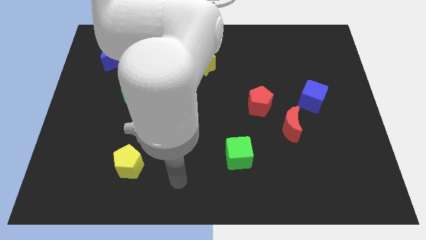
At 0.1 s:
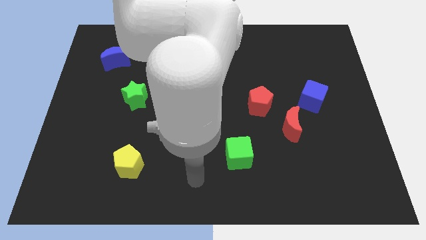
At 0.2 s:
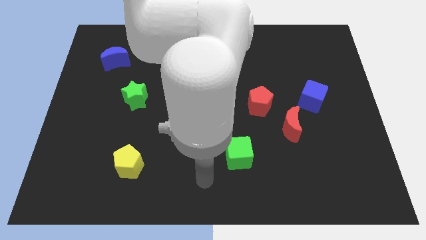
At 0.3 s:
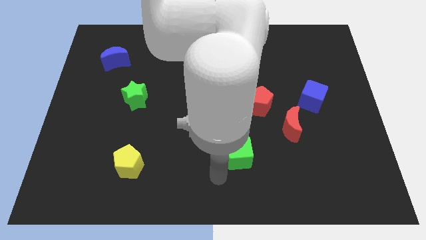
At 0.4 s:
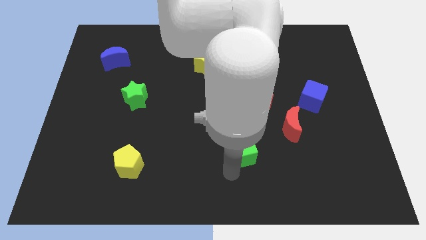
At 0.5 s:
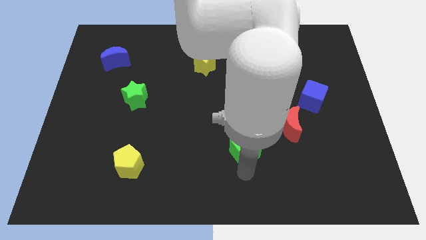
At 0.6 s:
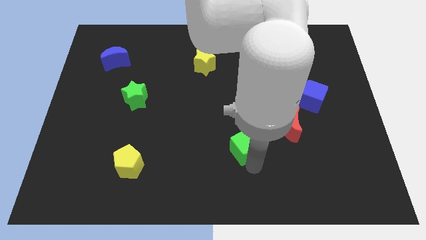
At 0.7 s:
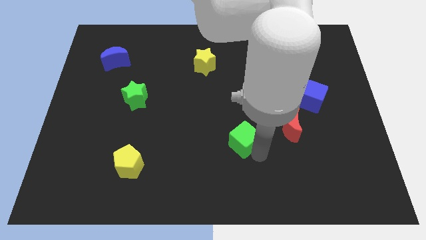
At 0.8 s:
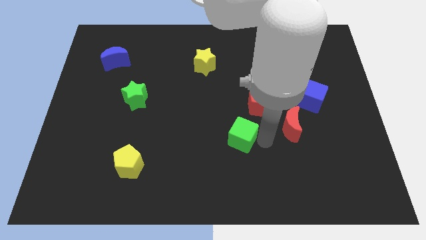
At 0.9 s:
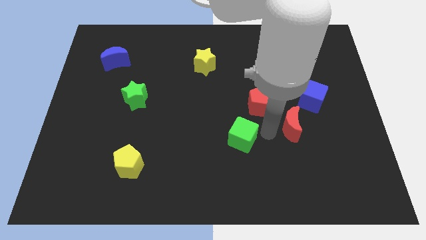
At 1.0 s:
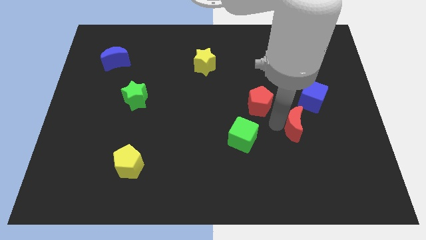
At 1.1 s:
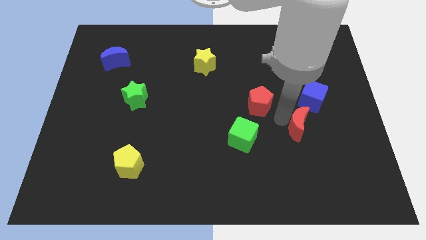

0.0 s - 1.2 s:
separate the red pentagon from the red moon

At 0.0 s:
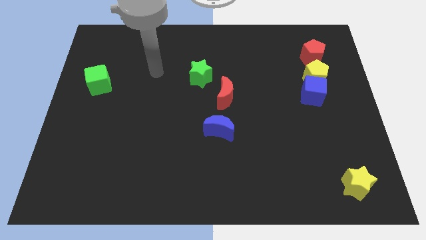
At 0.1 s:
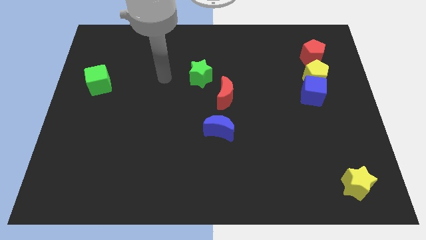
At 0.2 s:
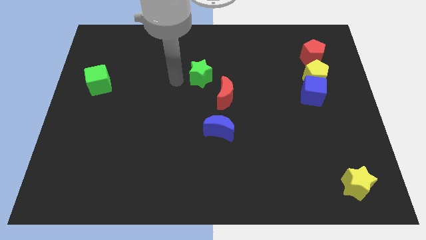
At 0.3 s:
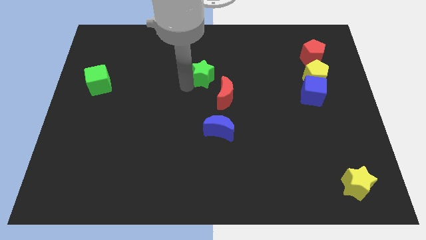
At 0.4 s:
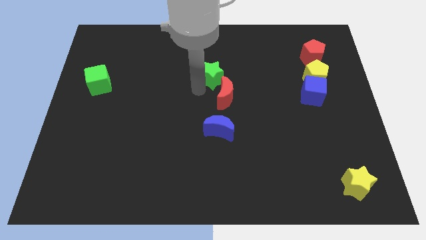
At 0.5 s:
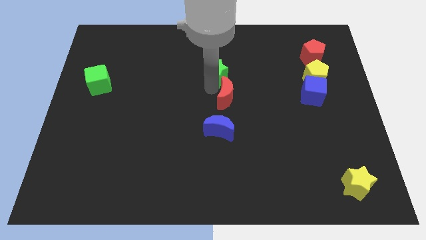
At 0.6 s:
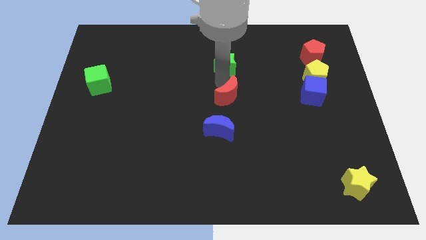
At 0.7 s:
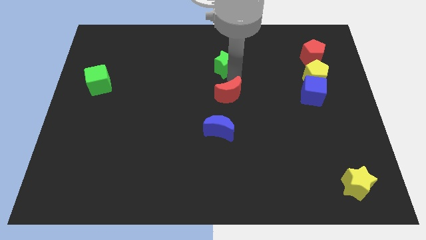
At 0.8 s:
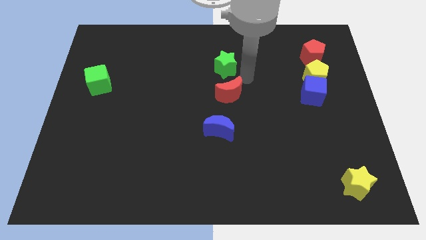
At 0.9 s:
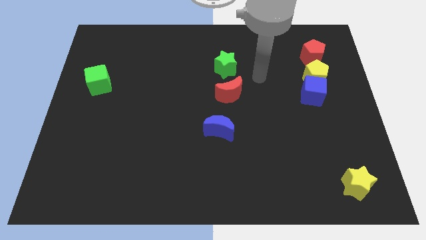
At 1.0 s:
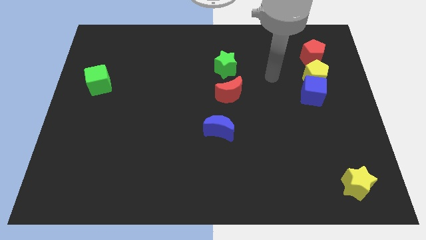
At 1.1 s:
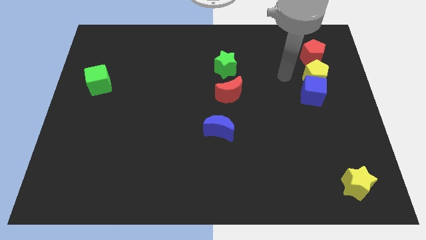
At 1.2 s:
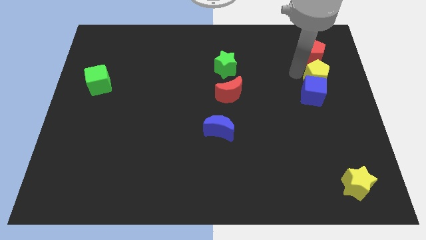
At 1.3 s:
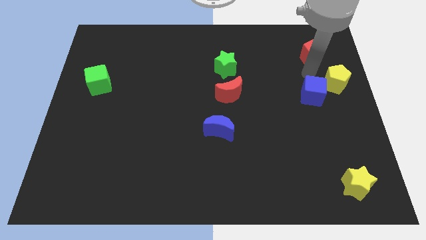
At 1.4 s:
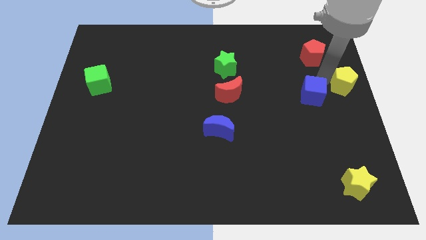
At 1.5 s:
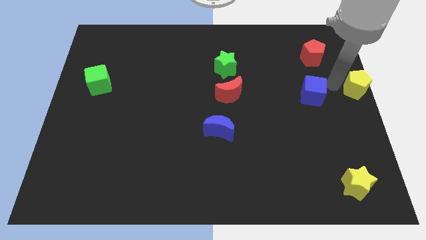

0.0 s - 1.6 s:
pull the blue cube apart from the yellow pentagon

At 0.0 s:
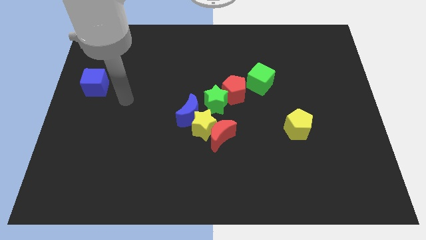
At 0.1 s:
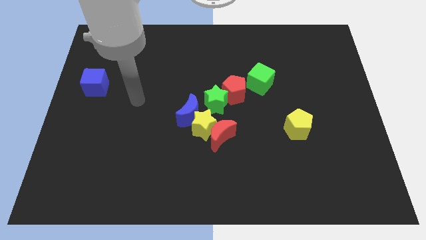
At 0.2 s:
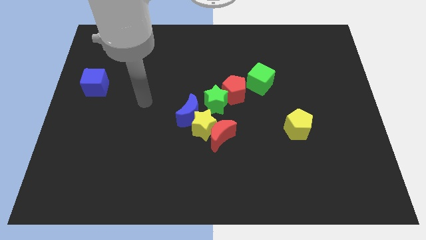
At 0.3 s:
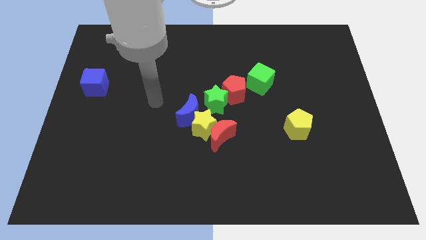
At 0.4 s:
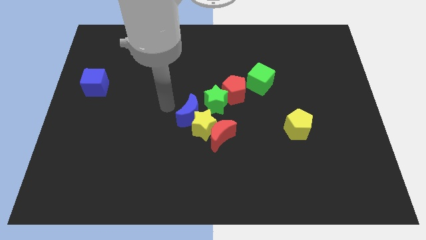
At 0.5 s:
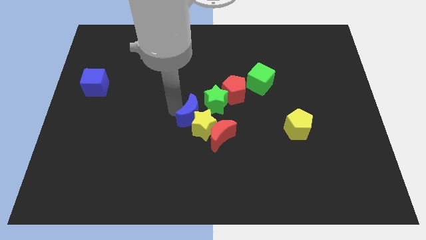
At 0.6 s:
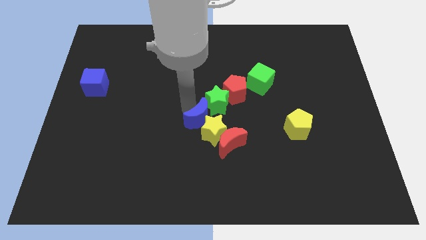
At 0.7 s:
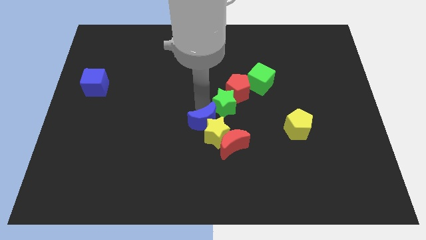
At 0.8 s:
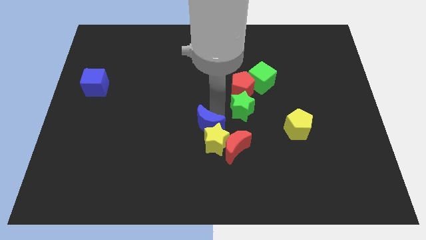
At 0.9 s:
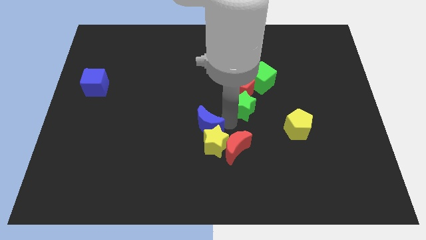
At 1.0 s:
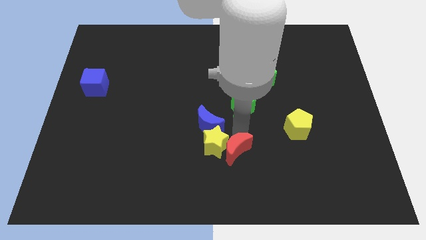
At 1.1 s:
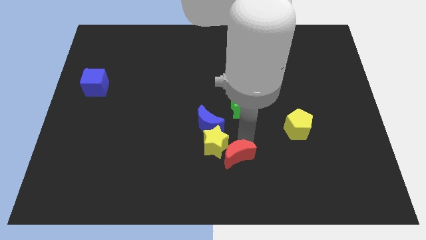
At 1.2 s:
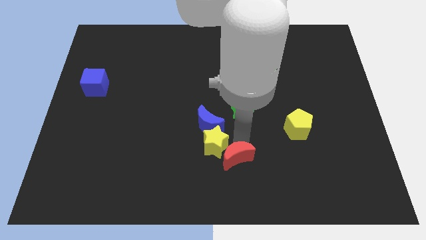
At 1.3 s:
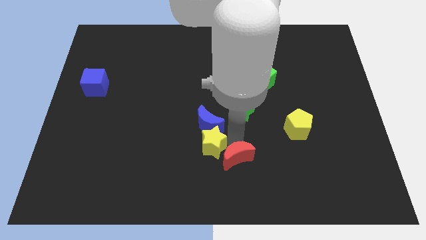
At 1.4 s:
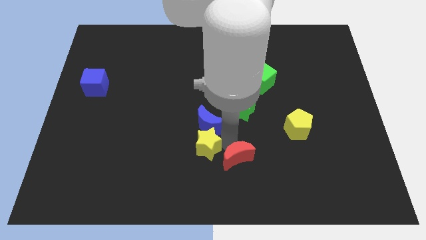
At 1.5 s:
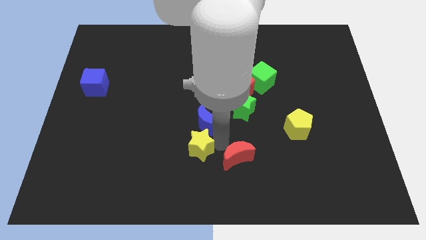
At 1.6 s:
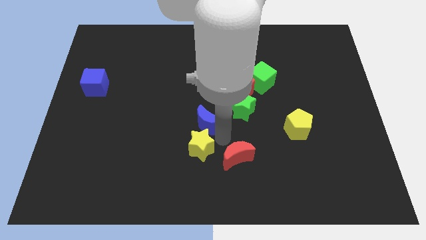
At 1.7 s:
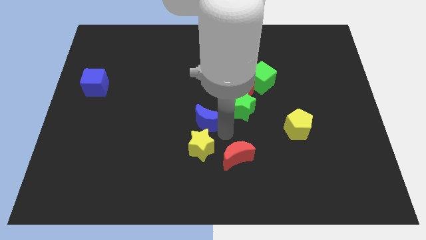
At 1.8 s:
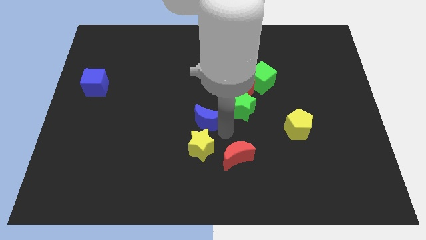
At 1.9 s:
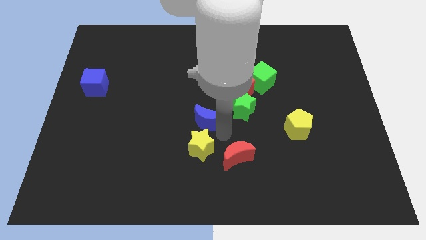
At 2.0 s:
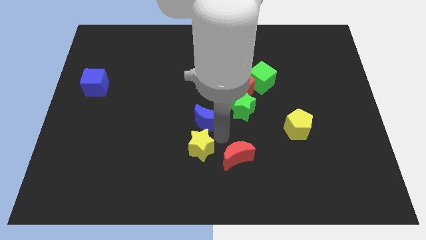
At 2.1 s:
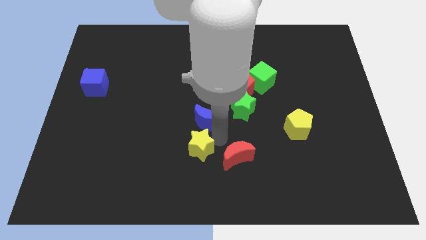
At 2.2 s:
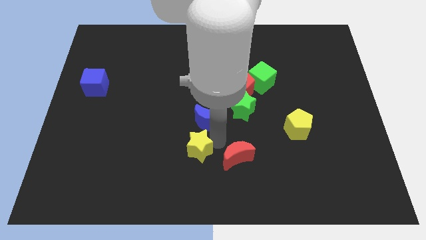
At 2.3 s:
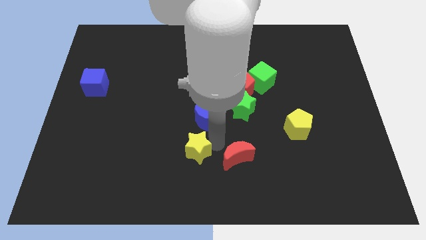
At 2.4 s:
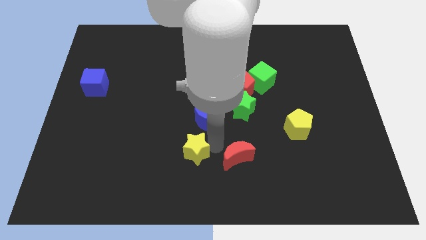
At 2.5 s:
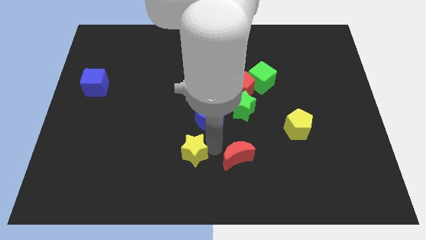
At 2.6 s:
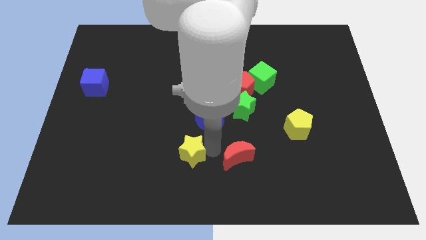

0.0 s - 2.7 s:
move the yellow star away from the red moon, blue moon, and green star

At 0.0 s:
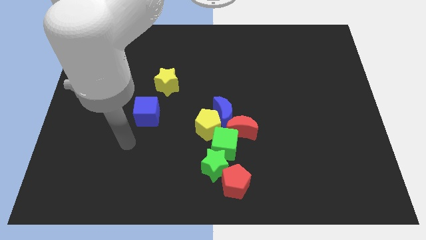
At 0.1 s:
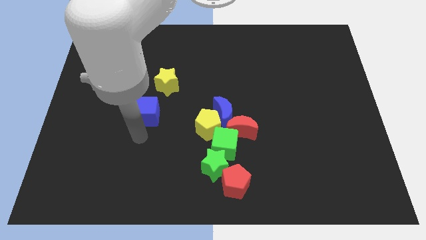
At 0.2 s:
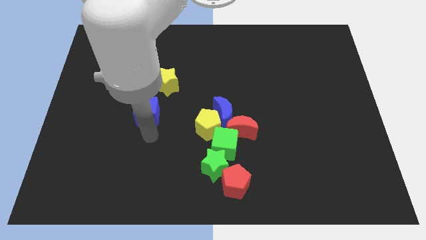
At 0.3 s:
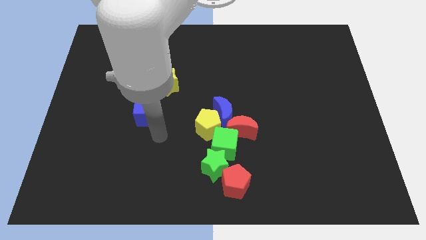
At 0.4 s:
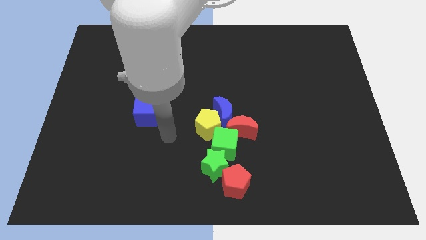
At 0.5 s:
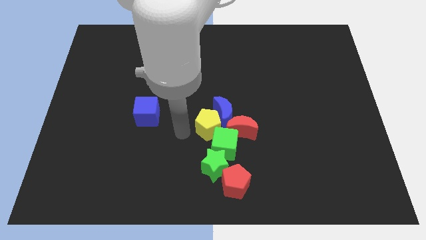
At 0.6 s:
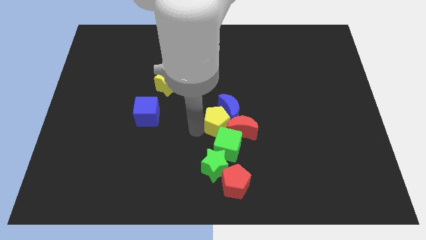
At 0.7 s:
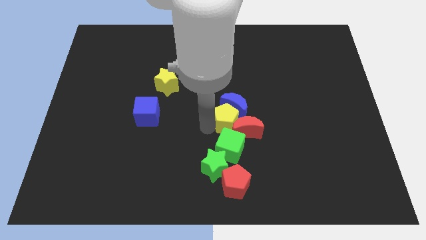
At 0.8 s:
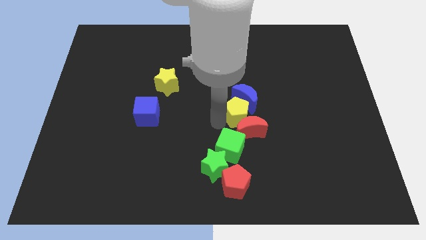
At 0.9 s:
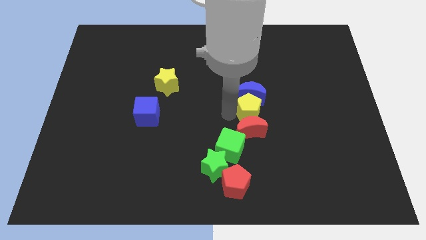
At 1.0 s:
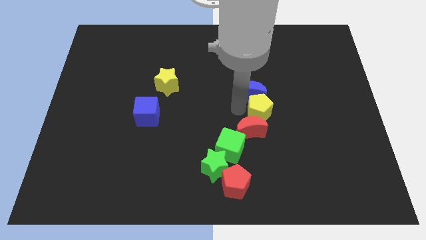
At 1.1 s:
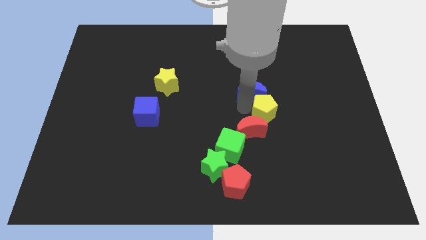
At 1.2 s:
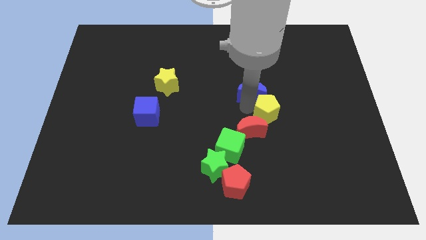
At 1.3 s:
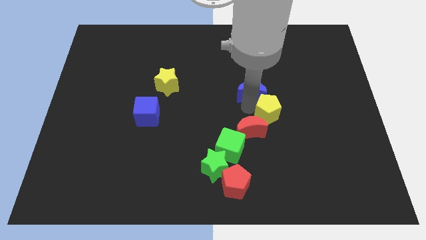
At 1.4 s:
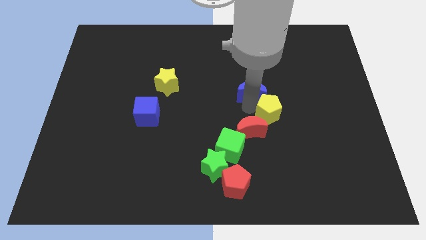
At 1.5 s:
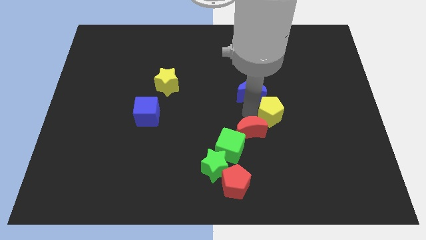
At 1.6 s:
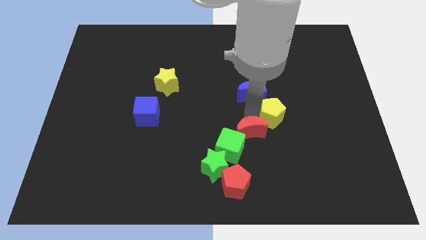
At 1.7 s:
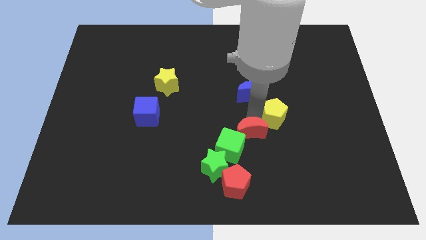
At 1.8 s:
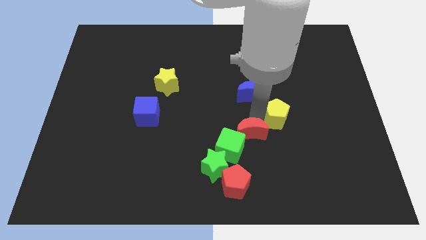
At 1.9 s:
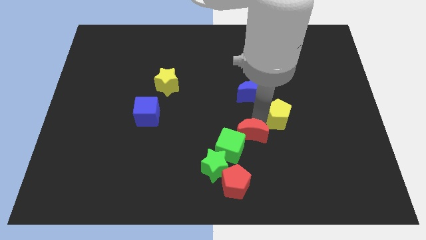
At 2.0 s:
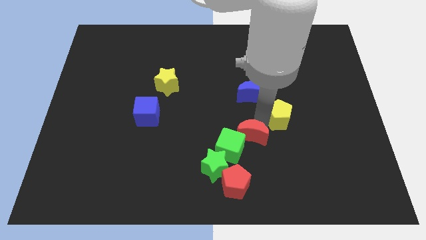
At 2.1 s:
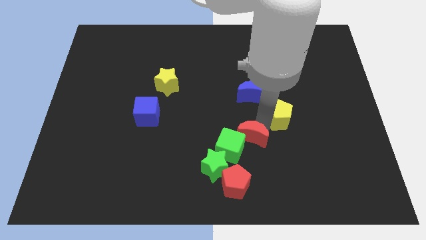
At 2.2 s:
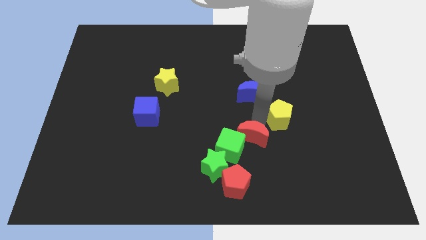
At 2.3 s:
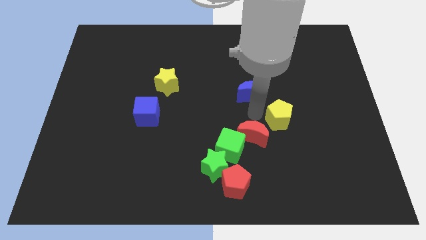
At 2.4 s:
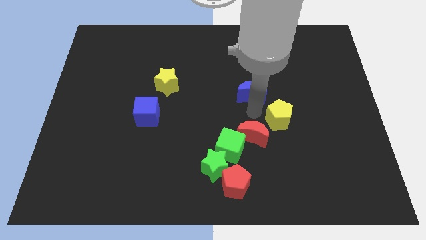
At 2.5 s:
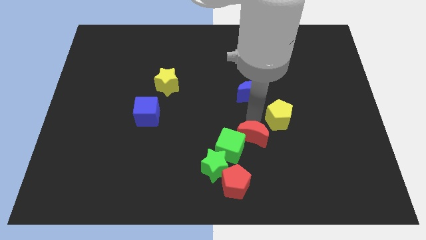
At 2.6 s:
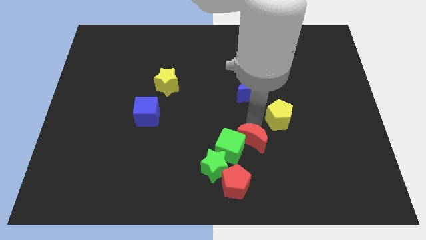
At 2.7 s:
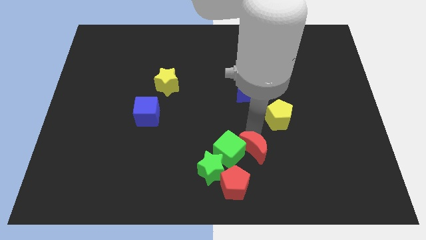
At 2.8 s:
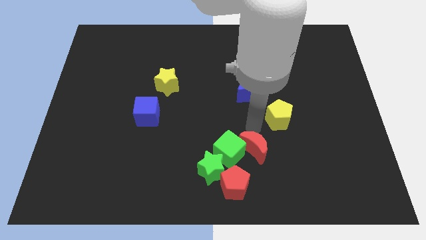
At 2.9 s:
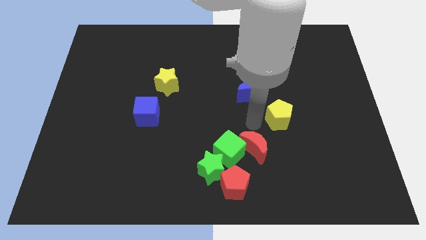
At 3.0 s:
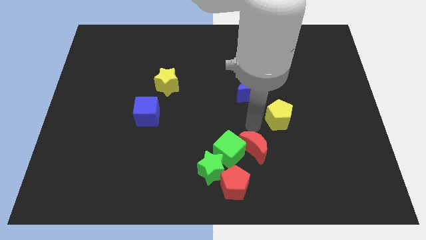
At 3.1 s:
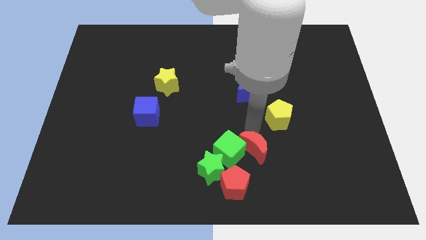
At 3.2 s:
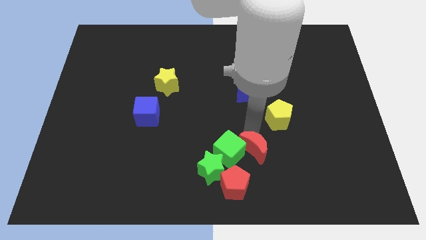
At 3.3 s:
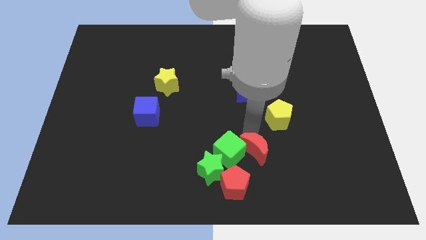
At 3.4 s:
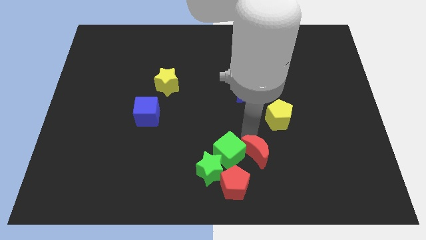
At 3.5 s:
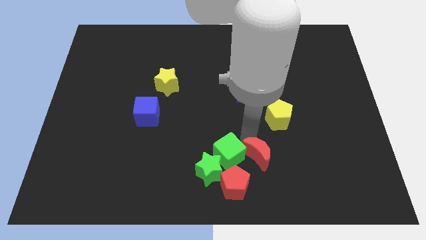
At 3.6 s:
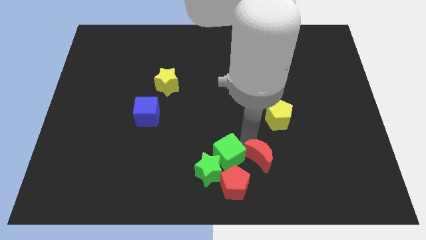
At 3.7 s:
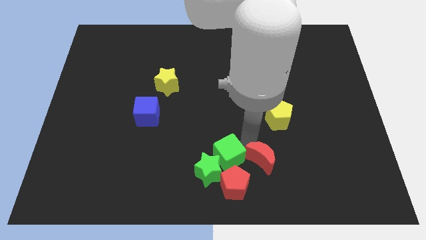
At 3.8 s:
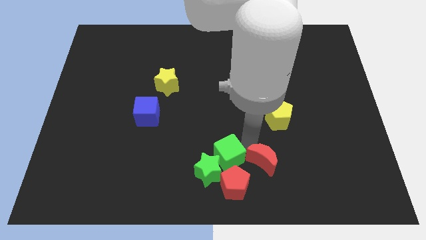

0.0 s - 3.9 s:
move the red moon away from the blue moon, green cube, and yellow pentagon
